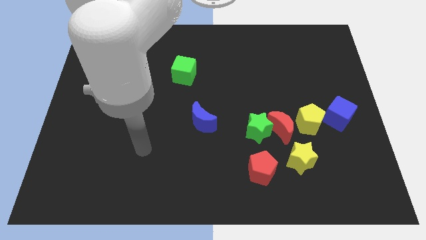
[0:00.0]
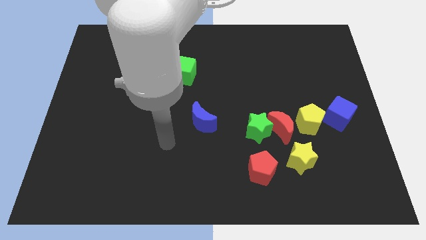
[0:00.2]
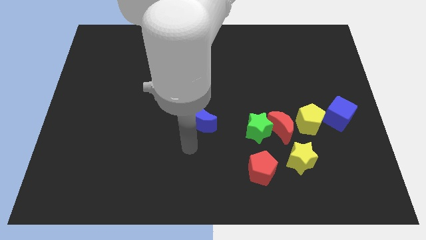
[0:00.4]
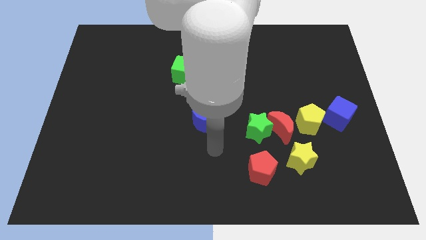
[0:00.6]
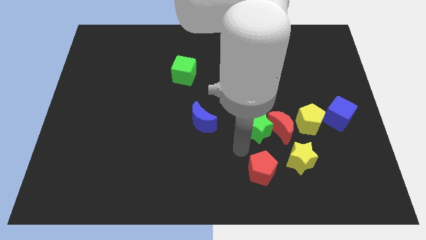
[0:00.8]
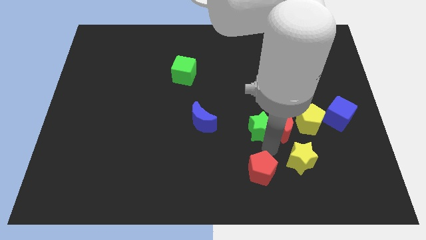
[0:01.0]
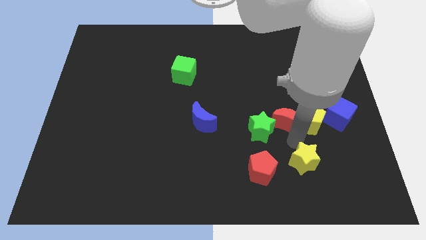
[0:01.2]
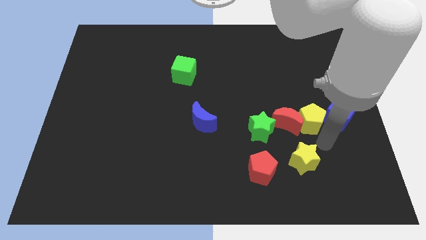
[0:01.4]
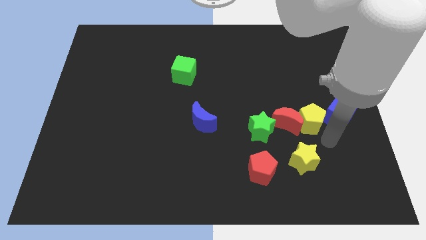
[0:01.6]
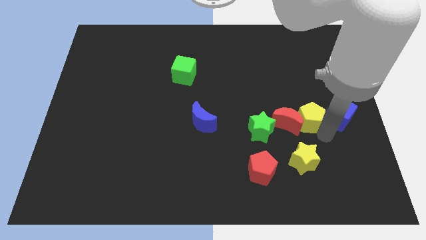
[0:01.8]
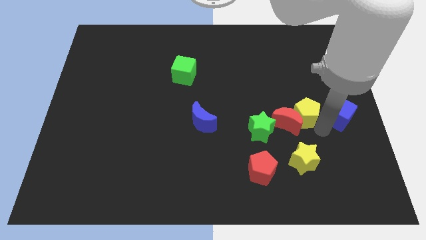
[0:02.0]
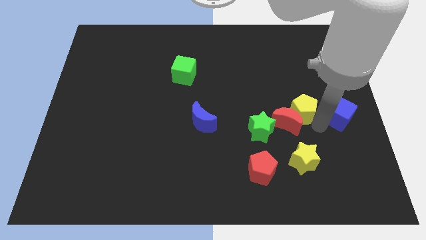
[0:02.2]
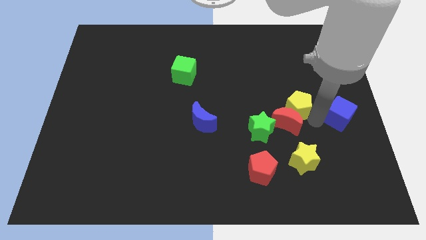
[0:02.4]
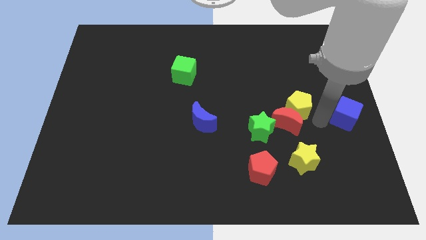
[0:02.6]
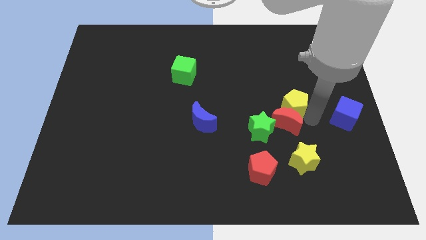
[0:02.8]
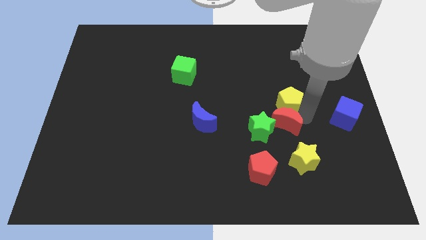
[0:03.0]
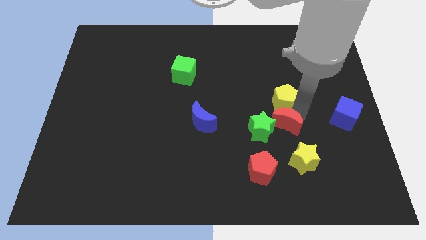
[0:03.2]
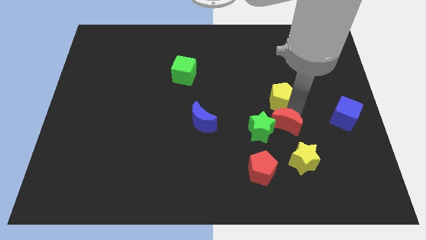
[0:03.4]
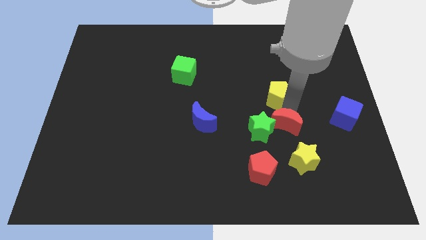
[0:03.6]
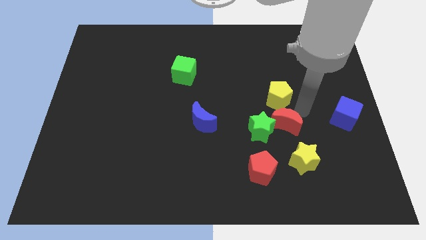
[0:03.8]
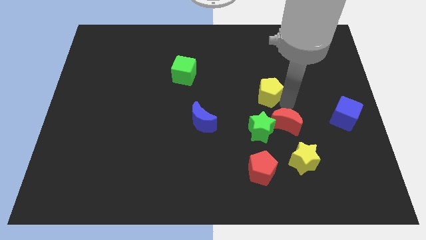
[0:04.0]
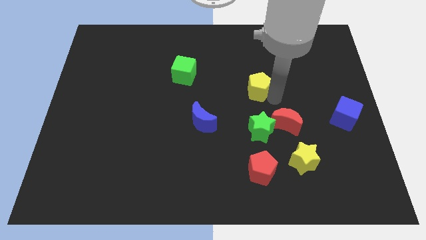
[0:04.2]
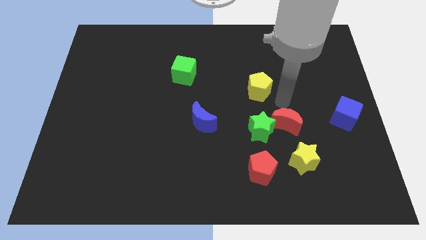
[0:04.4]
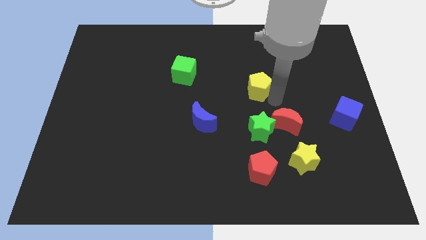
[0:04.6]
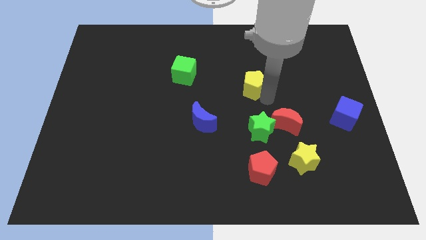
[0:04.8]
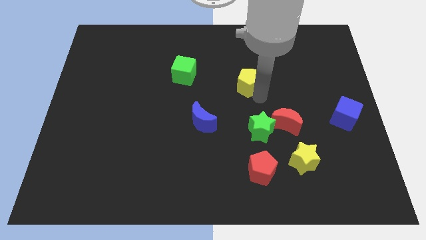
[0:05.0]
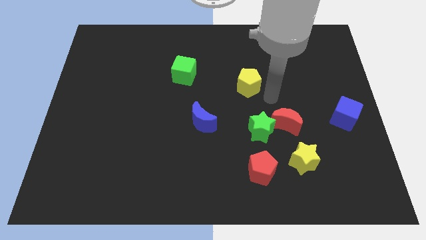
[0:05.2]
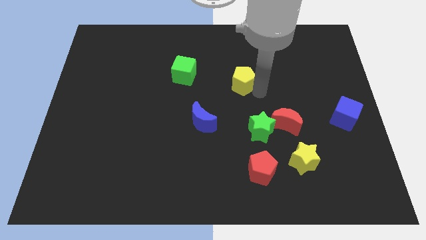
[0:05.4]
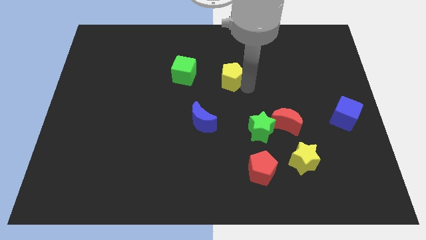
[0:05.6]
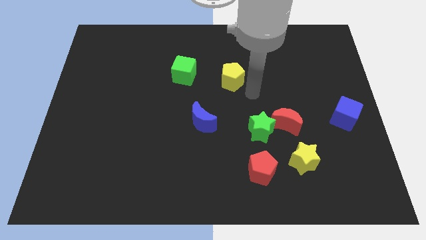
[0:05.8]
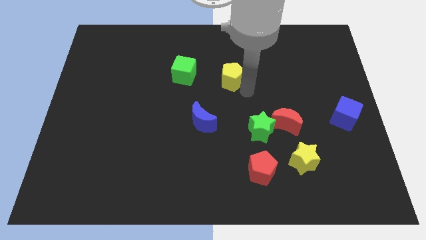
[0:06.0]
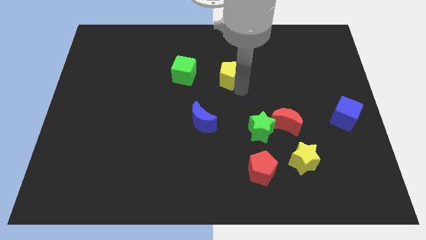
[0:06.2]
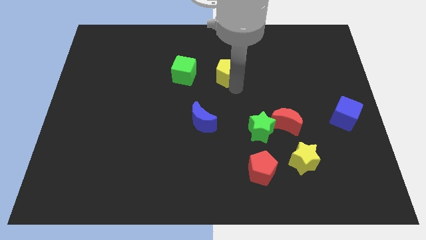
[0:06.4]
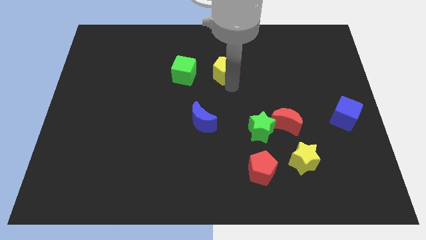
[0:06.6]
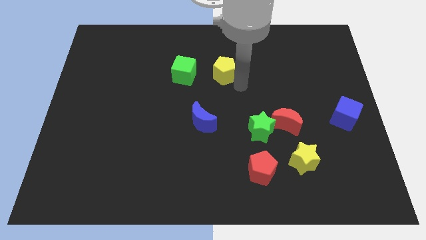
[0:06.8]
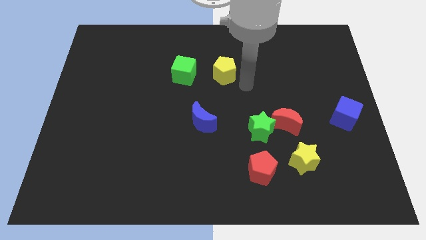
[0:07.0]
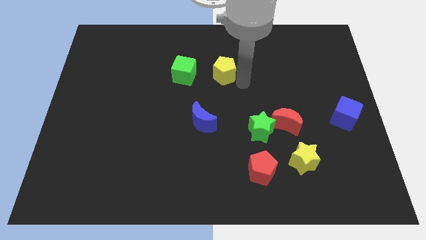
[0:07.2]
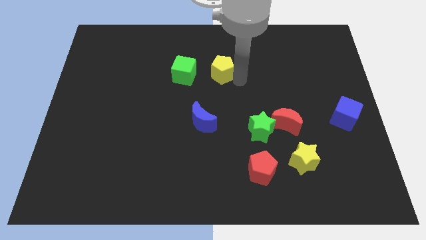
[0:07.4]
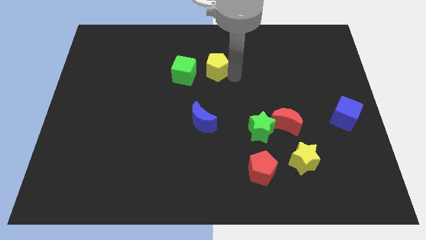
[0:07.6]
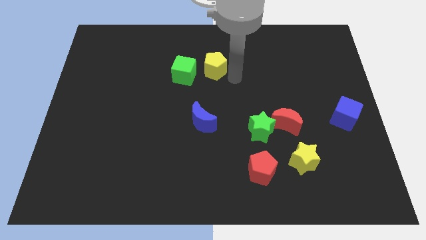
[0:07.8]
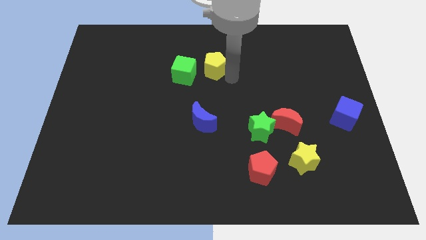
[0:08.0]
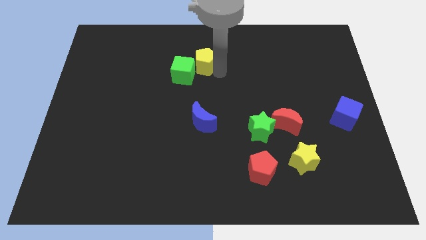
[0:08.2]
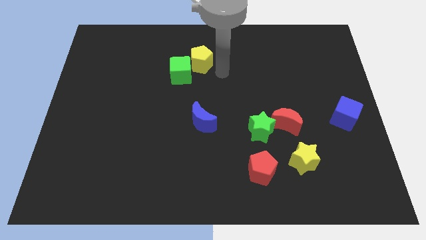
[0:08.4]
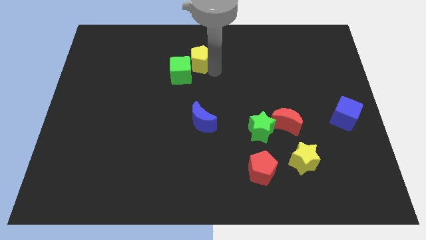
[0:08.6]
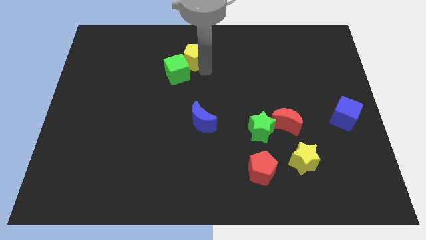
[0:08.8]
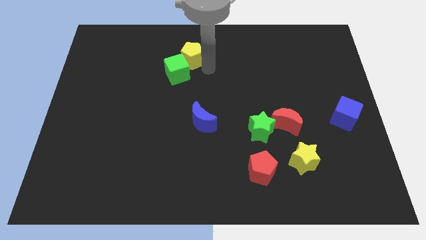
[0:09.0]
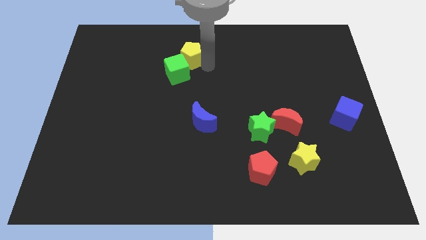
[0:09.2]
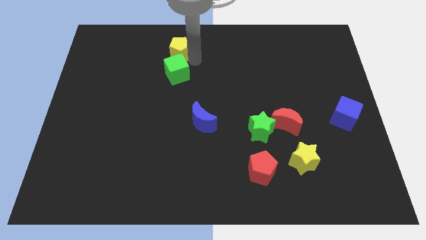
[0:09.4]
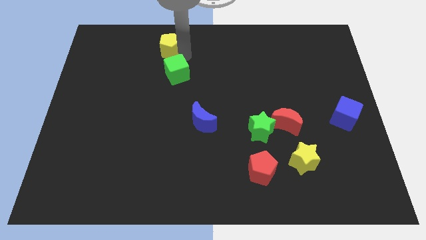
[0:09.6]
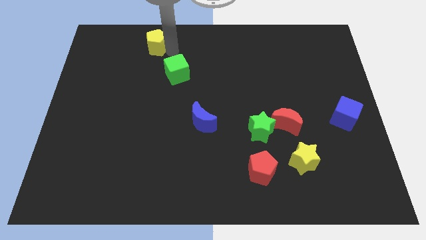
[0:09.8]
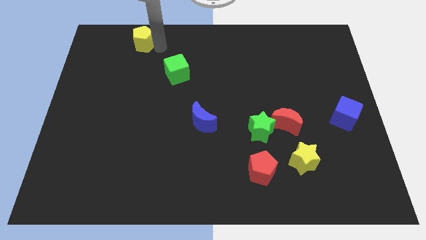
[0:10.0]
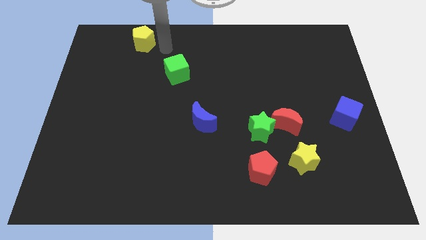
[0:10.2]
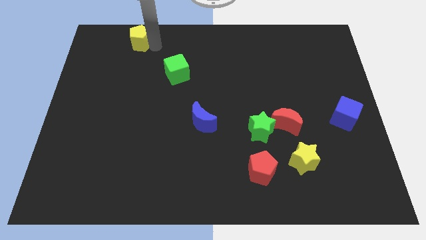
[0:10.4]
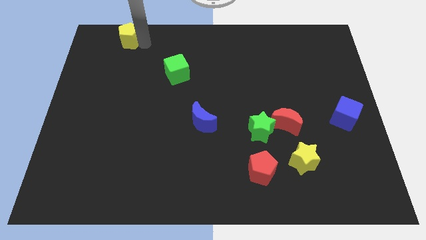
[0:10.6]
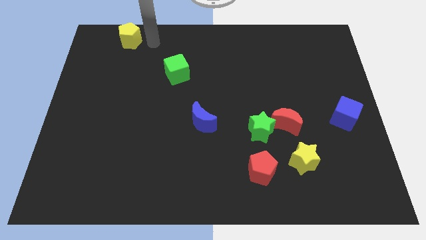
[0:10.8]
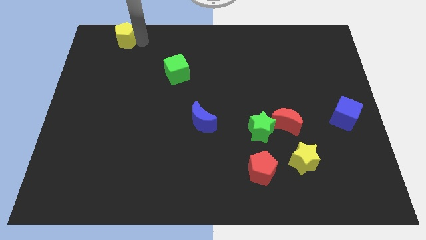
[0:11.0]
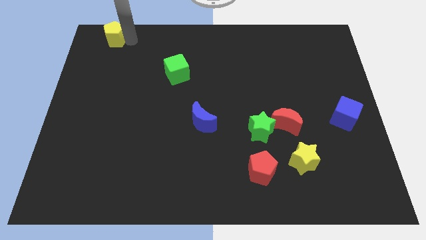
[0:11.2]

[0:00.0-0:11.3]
slide the yellow pentagon to the top left corner

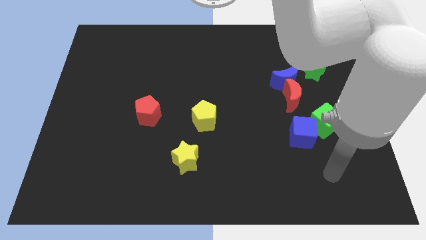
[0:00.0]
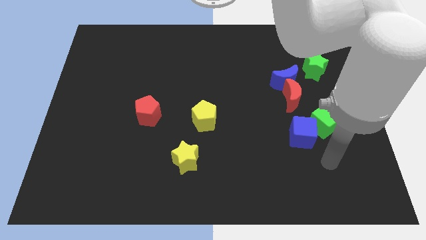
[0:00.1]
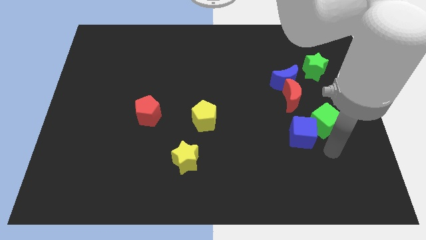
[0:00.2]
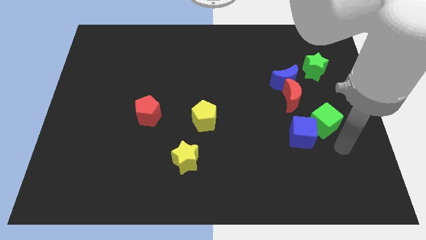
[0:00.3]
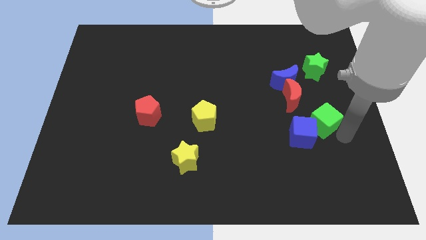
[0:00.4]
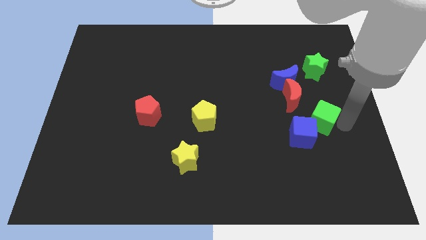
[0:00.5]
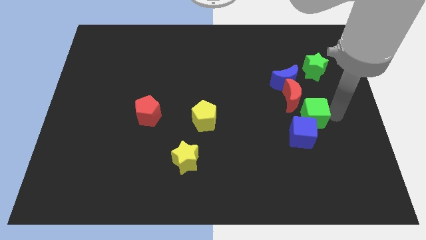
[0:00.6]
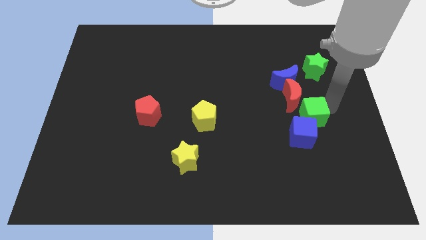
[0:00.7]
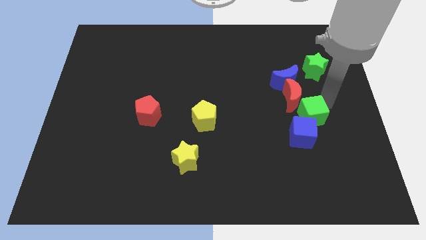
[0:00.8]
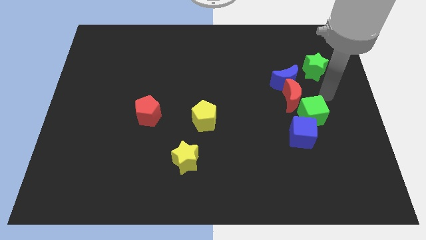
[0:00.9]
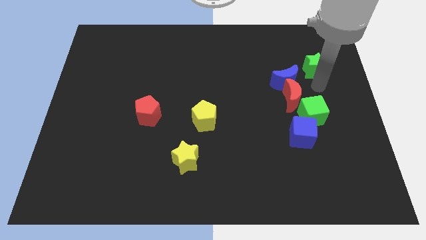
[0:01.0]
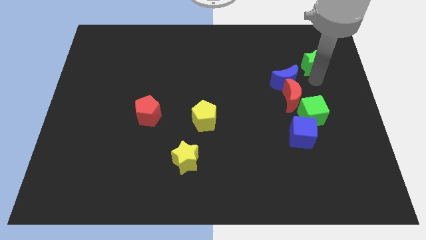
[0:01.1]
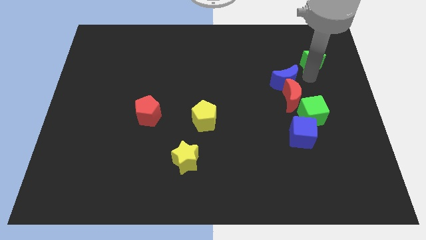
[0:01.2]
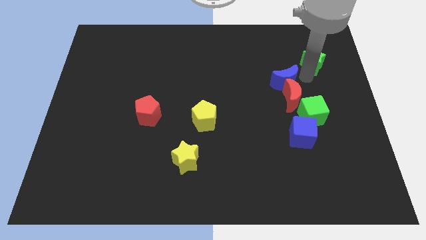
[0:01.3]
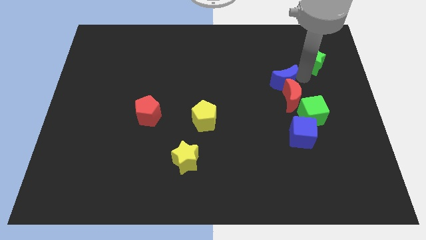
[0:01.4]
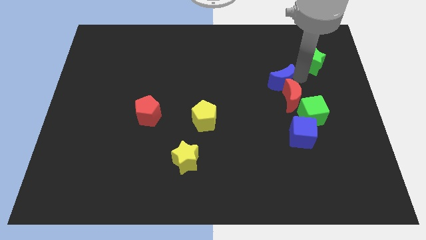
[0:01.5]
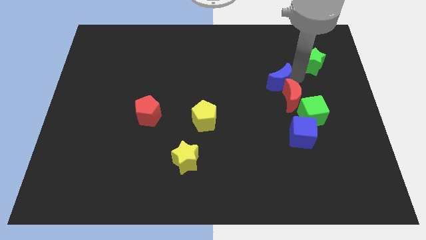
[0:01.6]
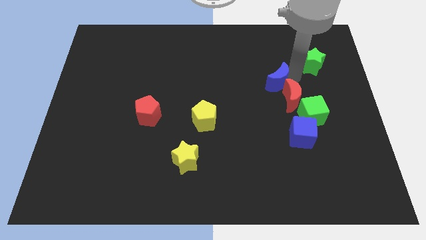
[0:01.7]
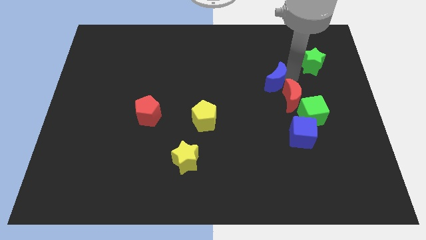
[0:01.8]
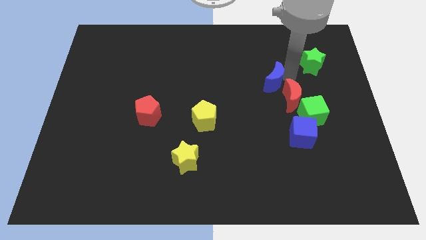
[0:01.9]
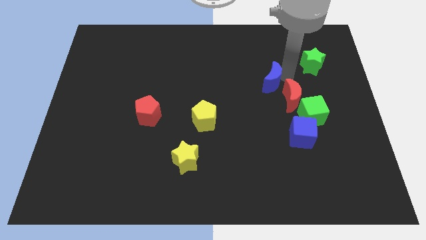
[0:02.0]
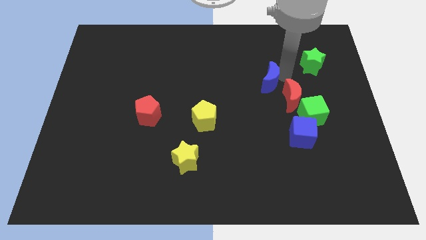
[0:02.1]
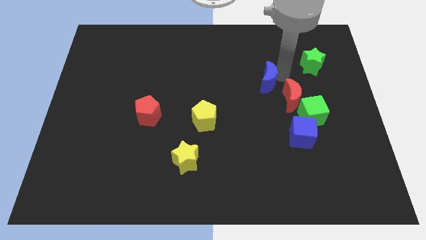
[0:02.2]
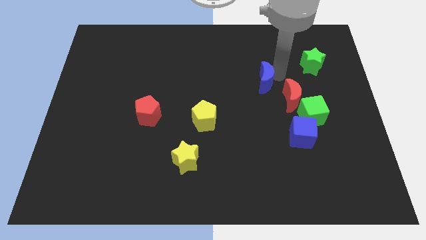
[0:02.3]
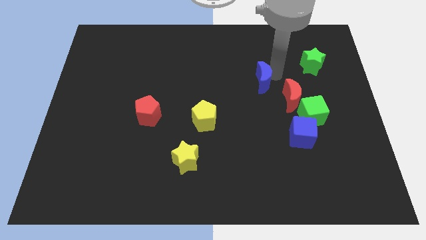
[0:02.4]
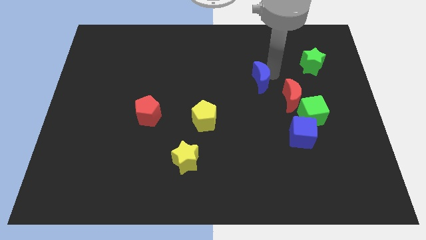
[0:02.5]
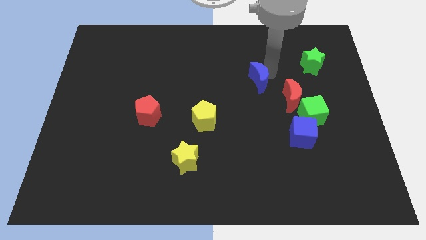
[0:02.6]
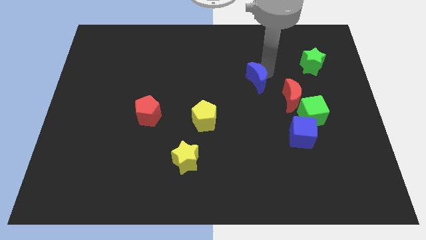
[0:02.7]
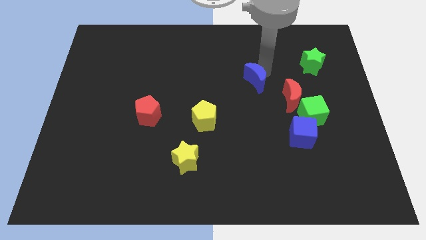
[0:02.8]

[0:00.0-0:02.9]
put the blue moon to the center
